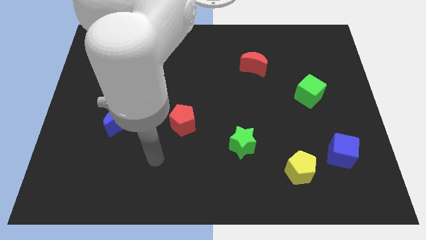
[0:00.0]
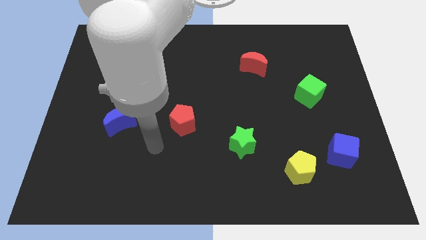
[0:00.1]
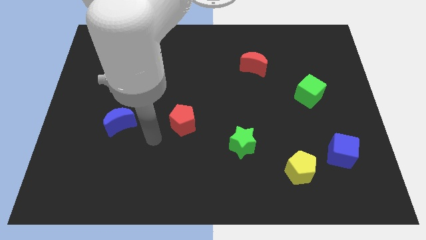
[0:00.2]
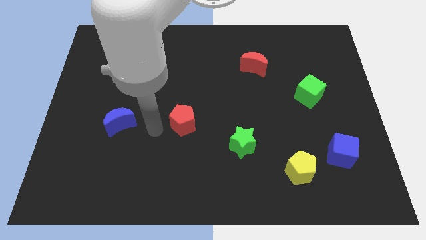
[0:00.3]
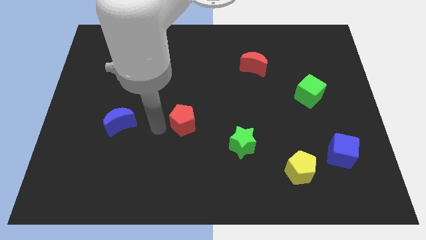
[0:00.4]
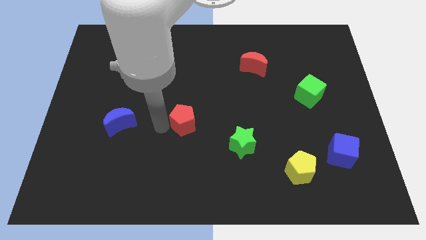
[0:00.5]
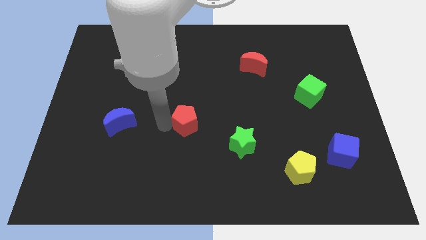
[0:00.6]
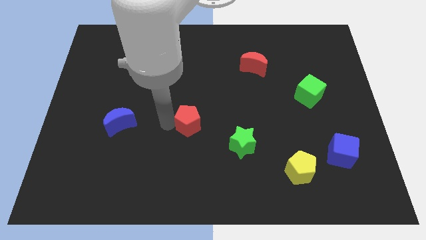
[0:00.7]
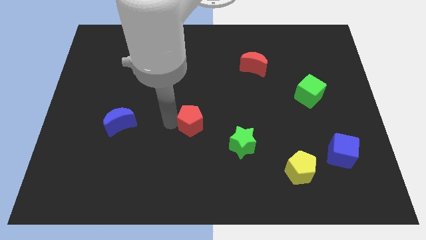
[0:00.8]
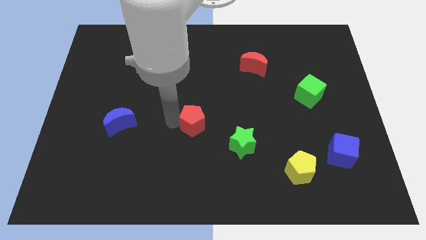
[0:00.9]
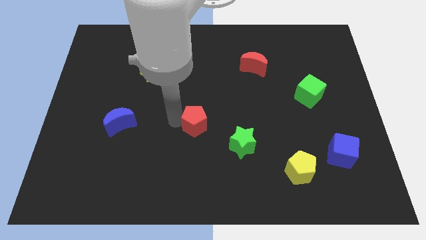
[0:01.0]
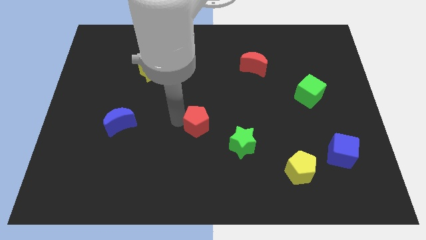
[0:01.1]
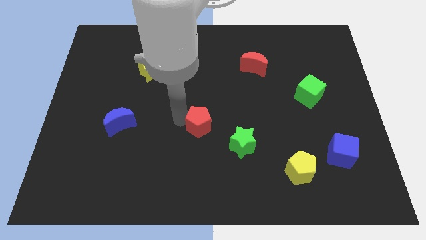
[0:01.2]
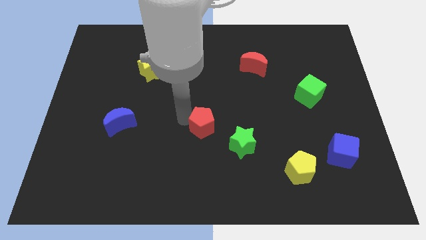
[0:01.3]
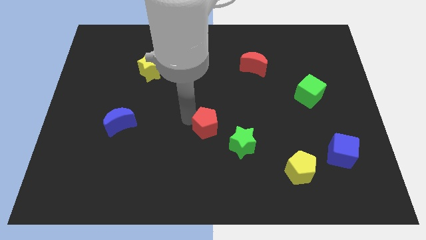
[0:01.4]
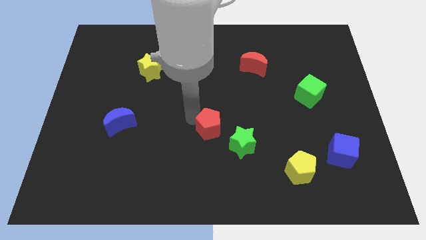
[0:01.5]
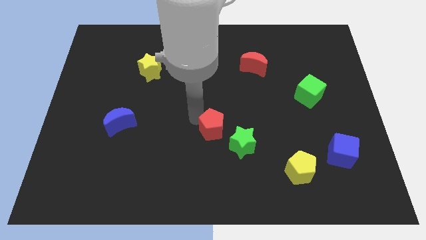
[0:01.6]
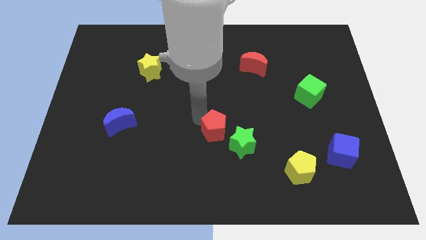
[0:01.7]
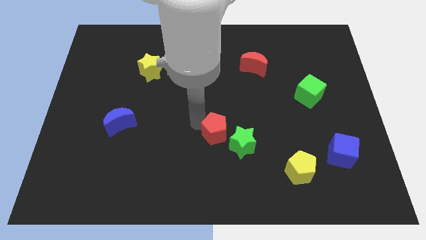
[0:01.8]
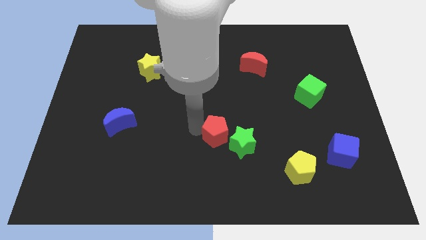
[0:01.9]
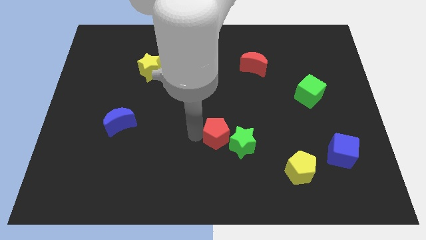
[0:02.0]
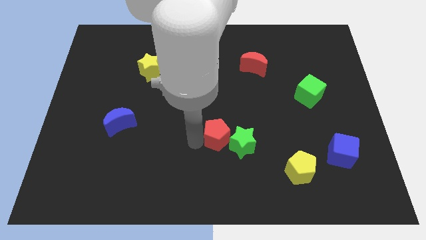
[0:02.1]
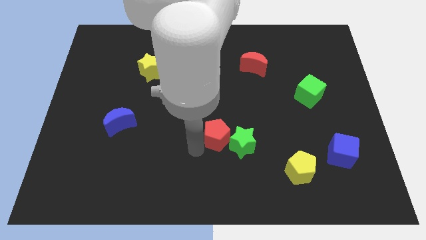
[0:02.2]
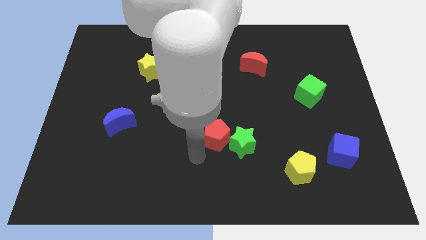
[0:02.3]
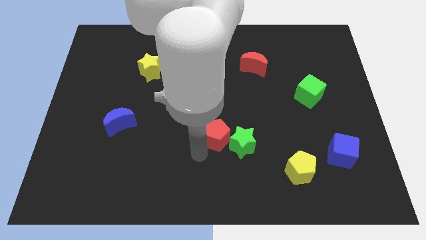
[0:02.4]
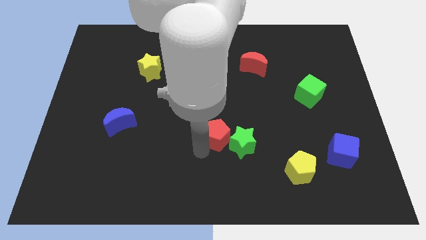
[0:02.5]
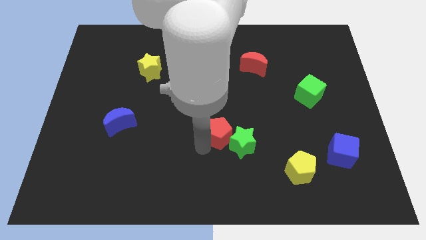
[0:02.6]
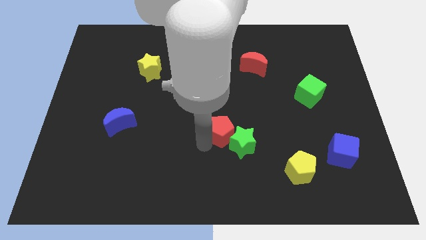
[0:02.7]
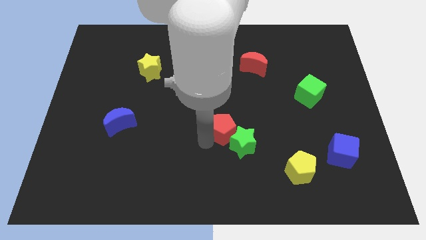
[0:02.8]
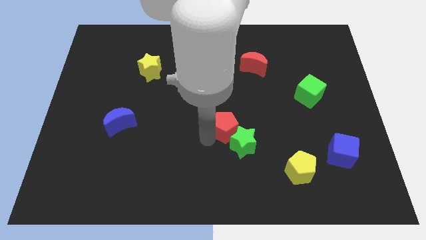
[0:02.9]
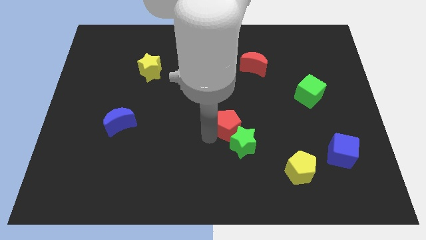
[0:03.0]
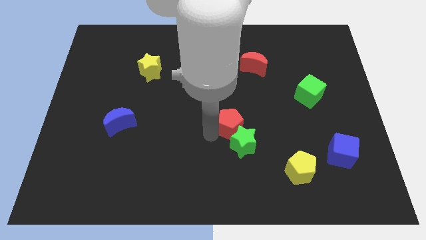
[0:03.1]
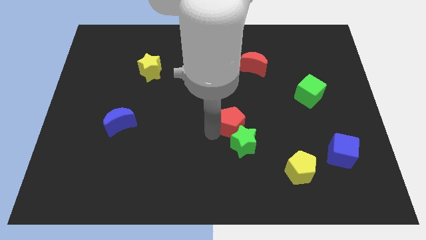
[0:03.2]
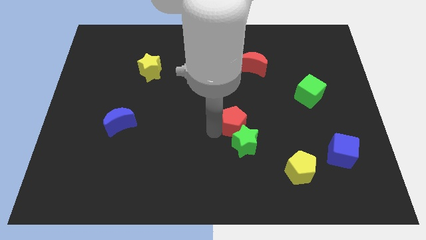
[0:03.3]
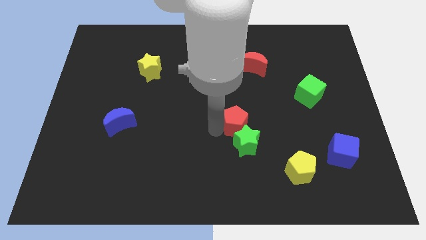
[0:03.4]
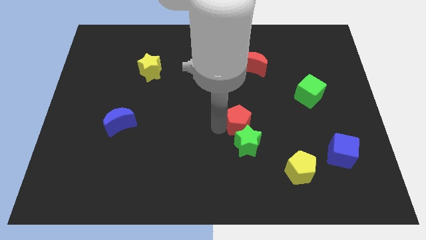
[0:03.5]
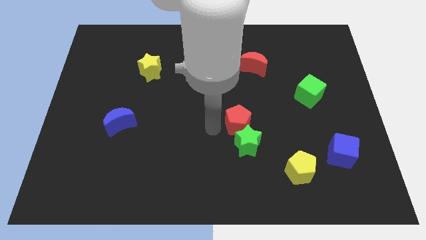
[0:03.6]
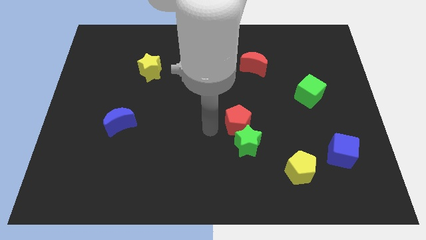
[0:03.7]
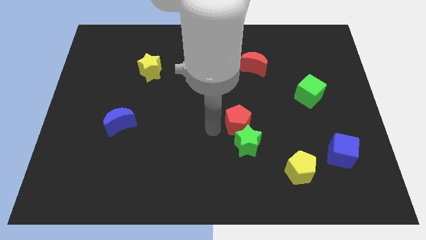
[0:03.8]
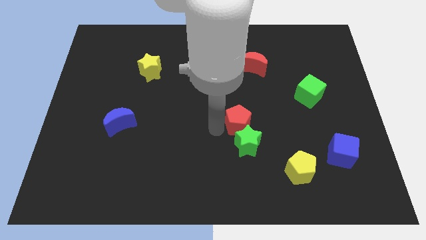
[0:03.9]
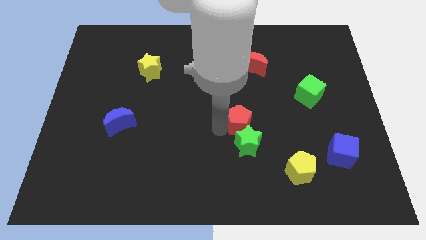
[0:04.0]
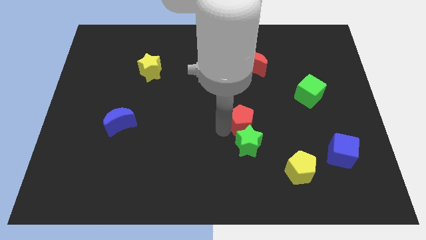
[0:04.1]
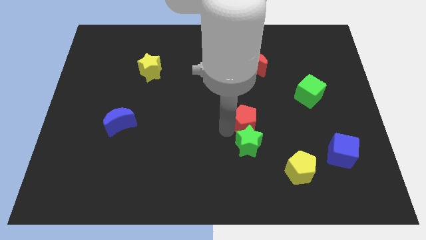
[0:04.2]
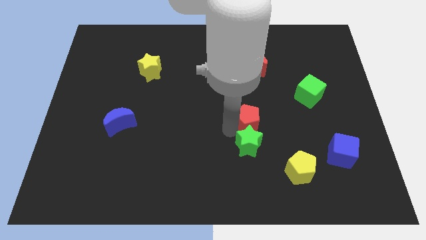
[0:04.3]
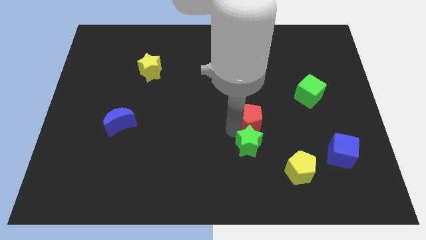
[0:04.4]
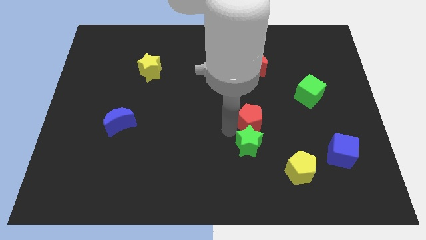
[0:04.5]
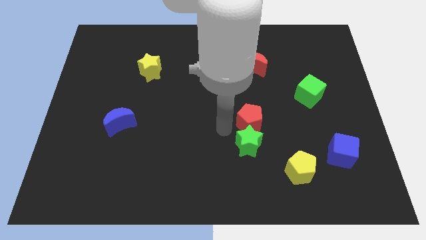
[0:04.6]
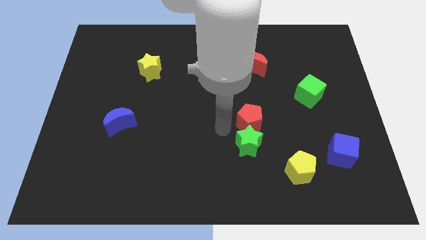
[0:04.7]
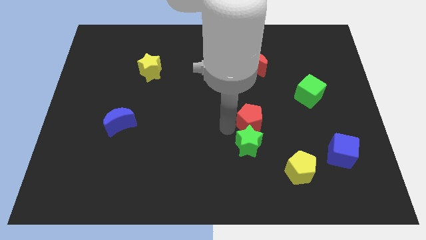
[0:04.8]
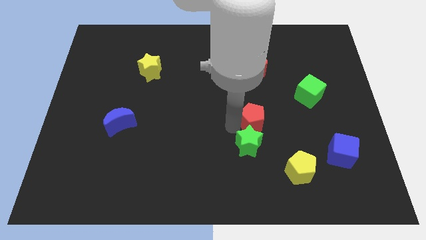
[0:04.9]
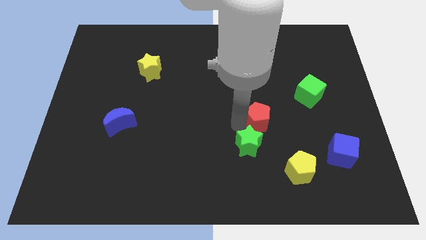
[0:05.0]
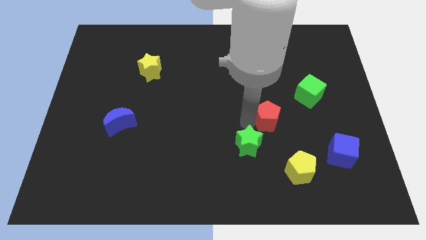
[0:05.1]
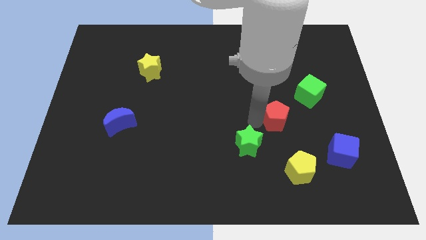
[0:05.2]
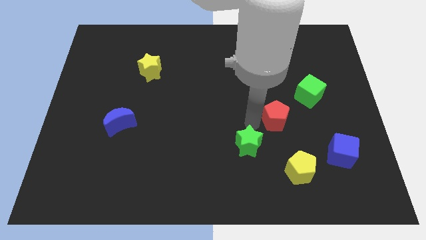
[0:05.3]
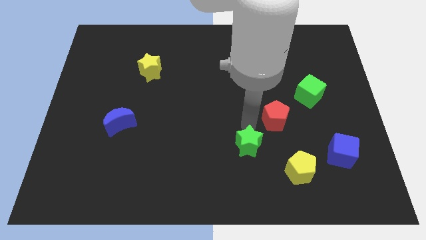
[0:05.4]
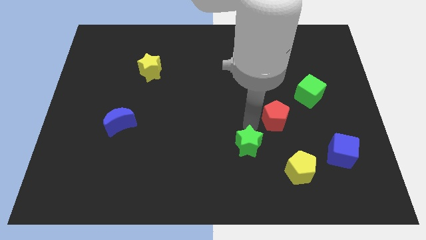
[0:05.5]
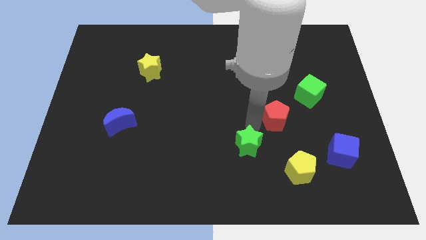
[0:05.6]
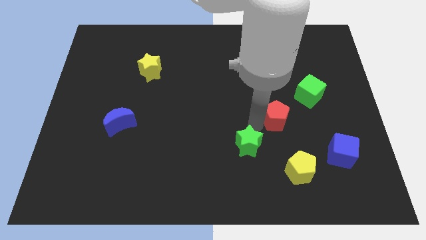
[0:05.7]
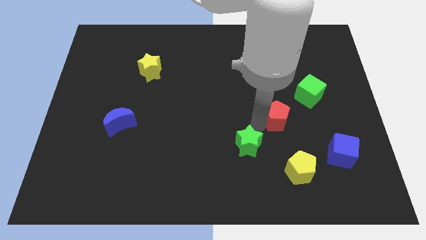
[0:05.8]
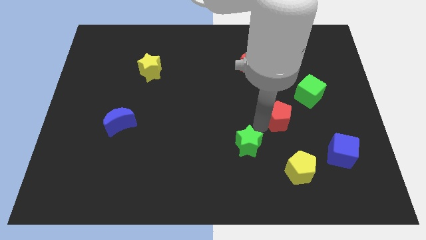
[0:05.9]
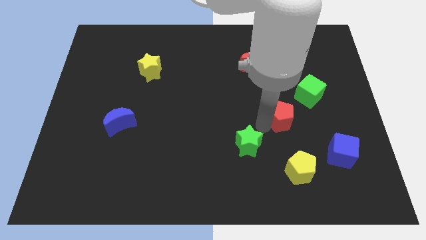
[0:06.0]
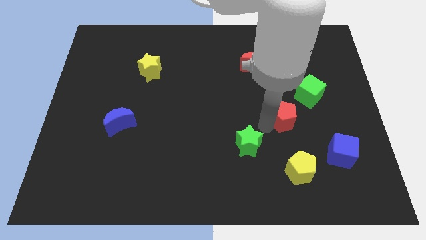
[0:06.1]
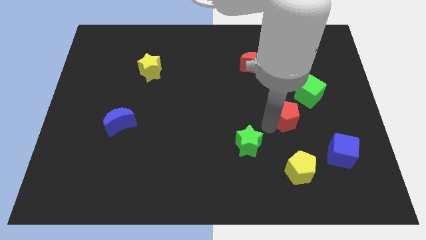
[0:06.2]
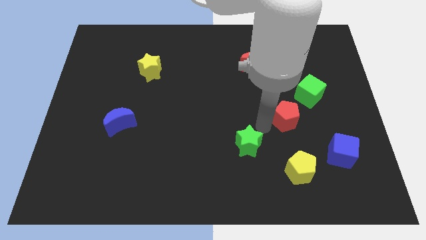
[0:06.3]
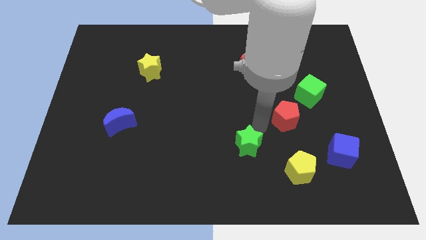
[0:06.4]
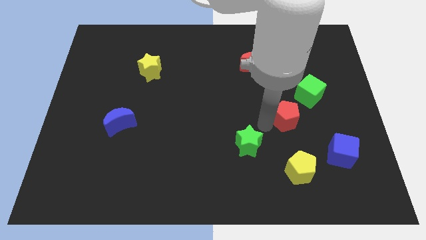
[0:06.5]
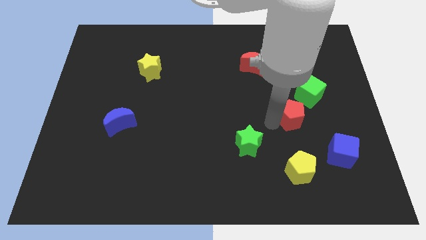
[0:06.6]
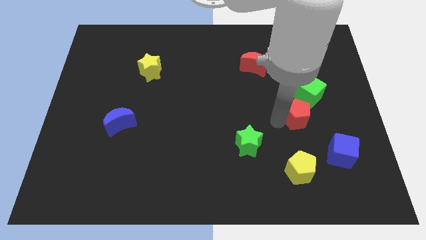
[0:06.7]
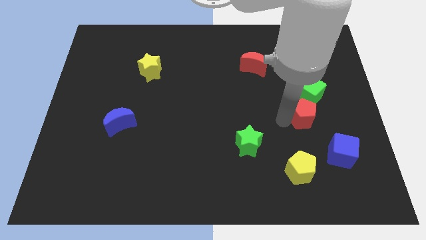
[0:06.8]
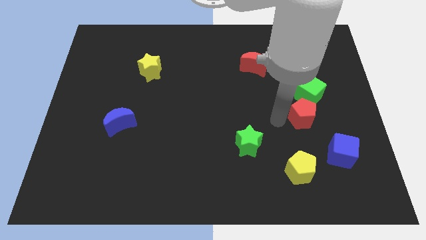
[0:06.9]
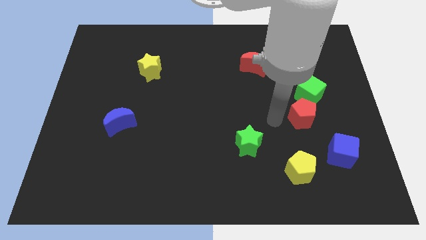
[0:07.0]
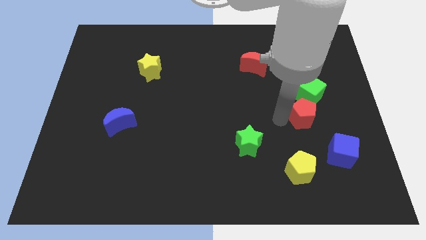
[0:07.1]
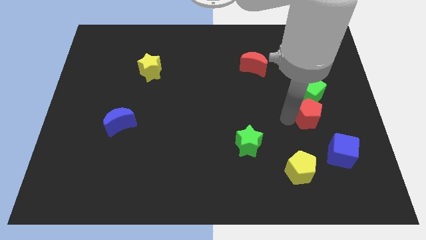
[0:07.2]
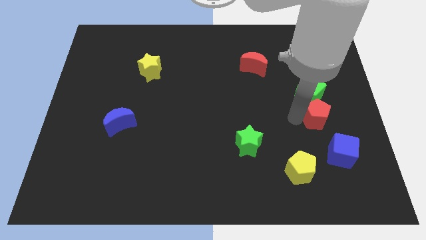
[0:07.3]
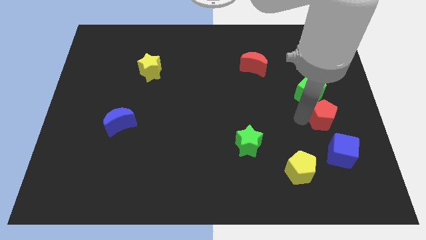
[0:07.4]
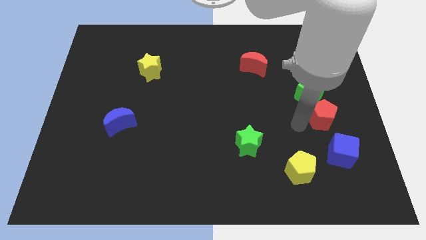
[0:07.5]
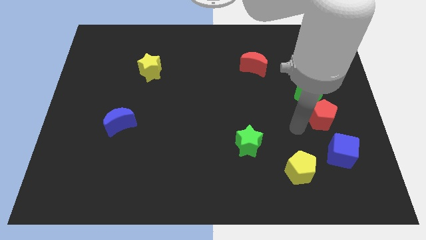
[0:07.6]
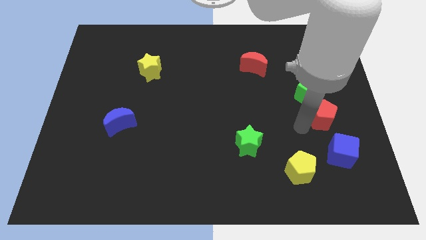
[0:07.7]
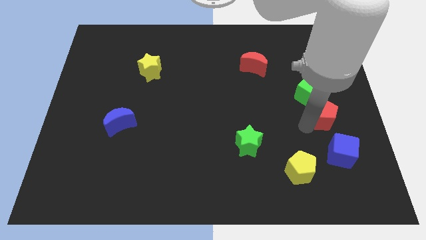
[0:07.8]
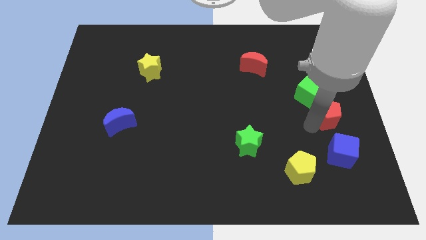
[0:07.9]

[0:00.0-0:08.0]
slide the red pentagon to the right side of the board
